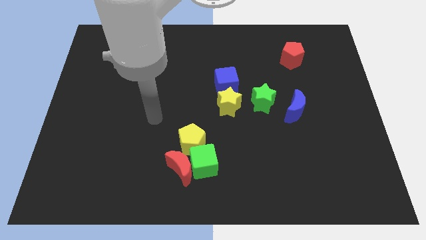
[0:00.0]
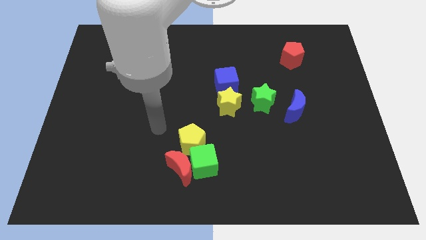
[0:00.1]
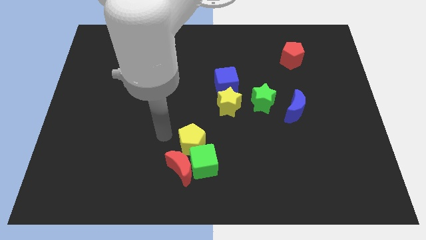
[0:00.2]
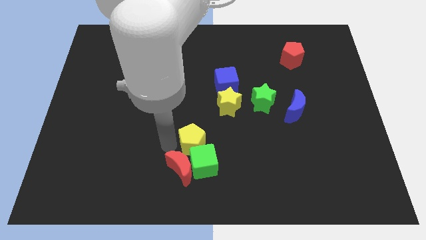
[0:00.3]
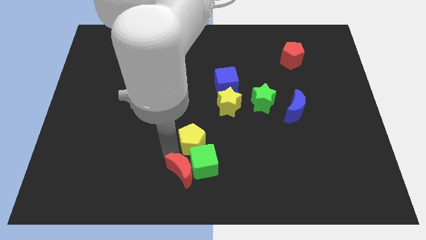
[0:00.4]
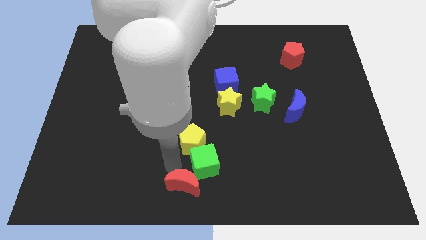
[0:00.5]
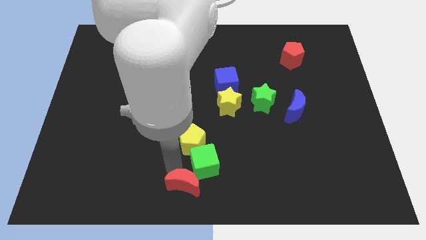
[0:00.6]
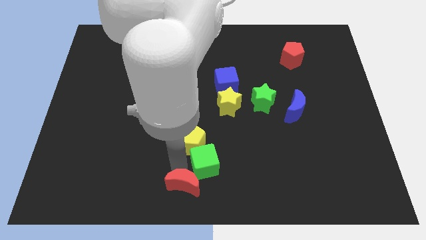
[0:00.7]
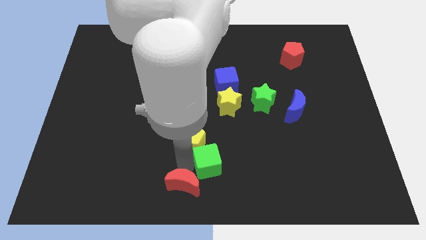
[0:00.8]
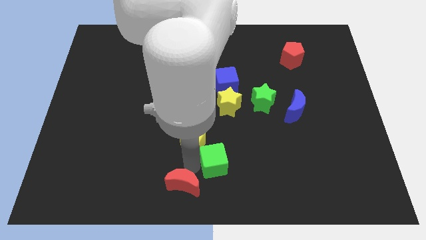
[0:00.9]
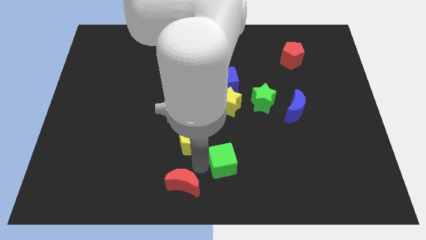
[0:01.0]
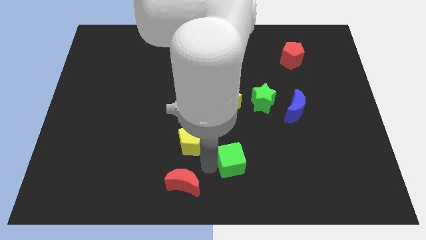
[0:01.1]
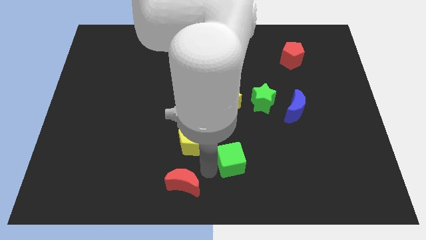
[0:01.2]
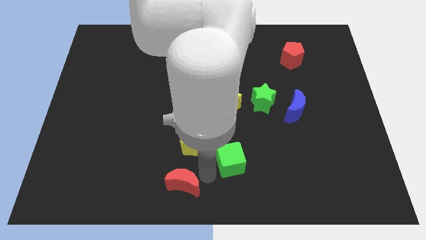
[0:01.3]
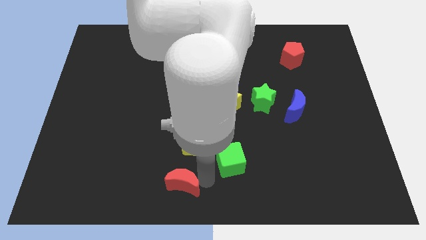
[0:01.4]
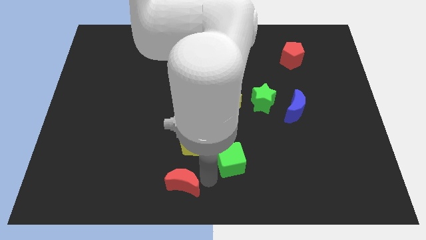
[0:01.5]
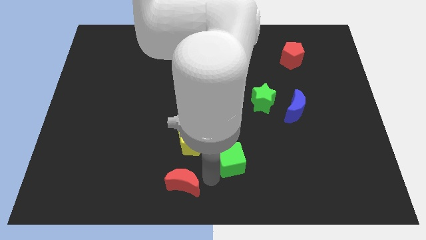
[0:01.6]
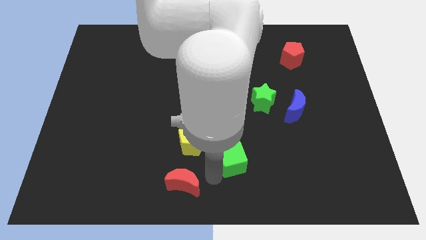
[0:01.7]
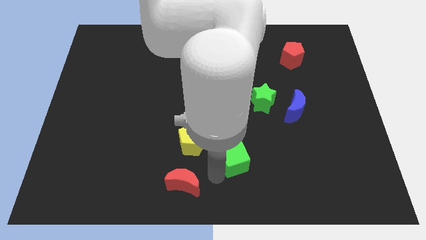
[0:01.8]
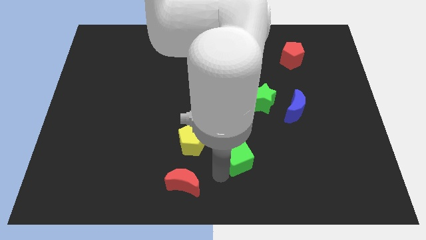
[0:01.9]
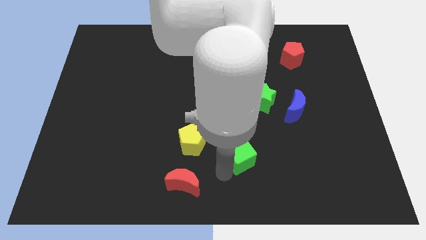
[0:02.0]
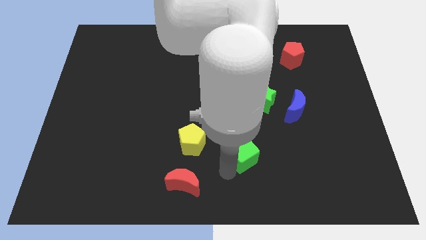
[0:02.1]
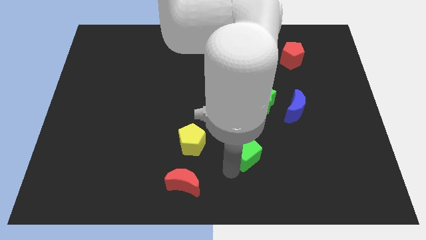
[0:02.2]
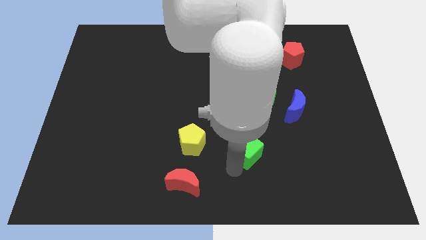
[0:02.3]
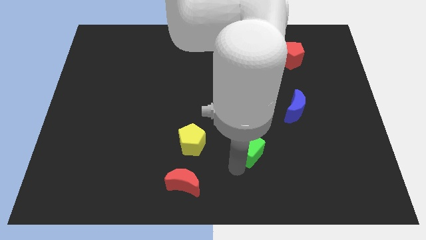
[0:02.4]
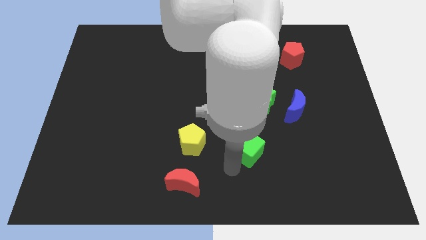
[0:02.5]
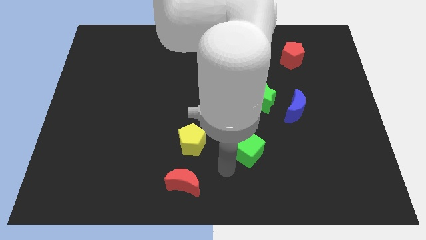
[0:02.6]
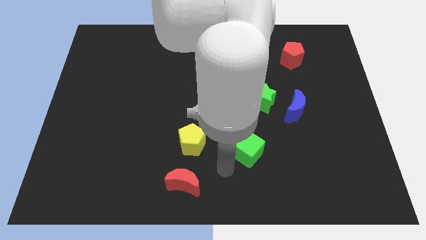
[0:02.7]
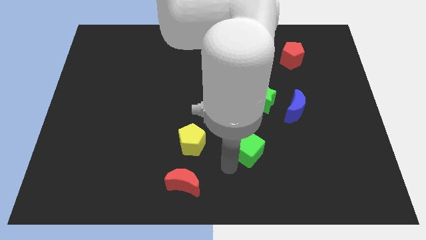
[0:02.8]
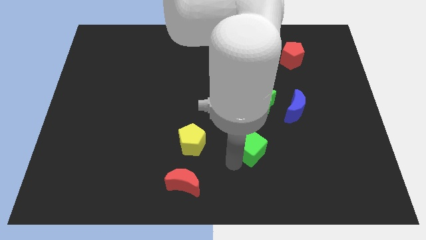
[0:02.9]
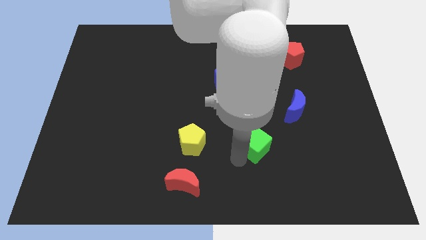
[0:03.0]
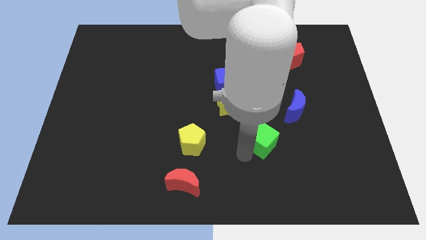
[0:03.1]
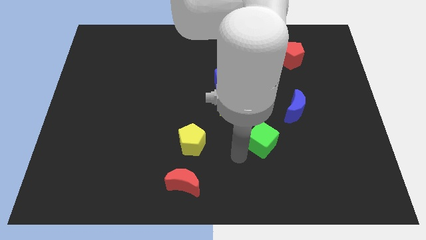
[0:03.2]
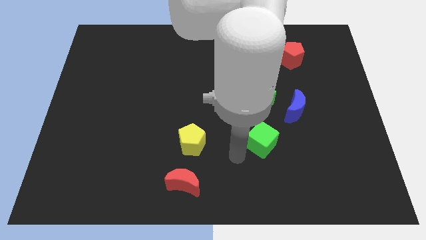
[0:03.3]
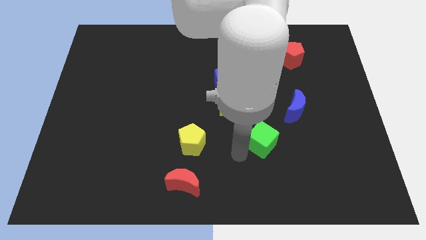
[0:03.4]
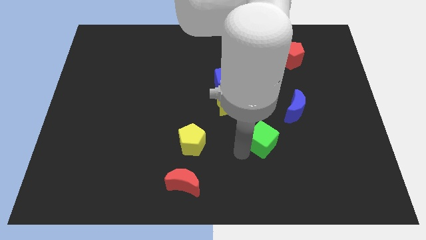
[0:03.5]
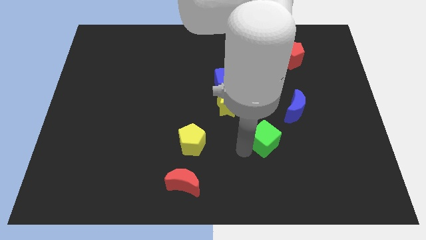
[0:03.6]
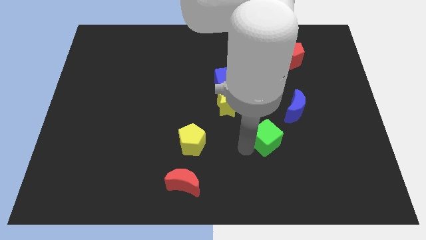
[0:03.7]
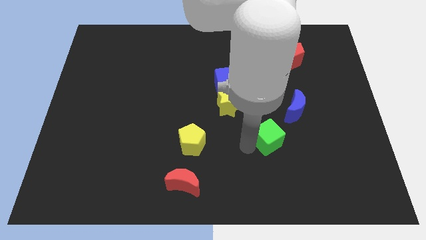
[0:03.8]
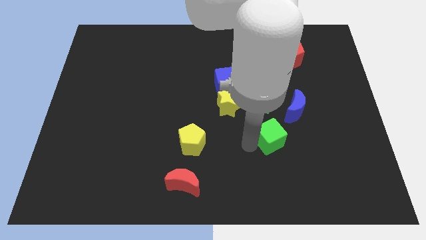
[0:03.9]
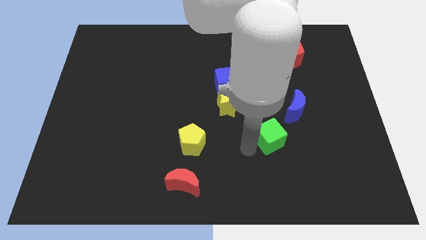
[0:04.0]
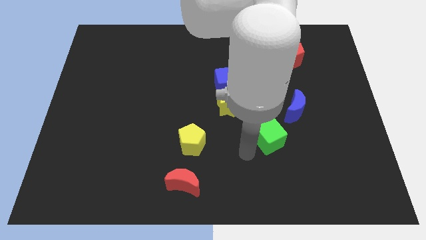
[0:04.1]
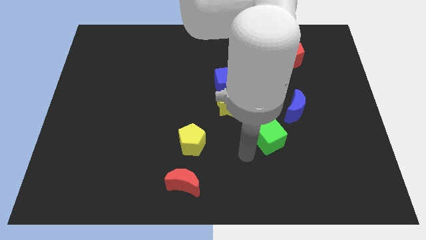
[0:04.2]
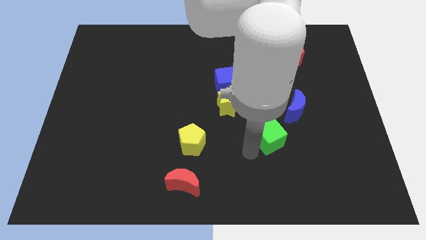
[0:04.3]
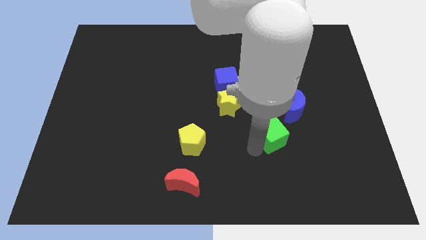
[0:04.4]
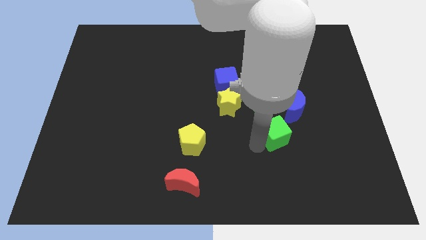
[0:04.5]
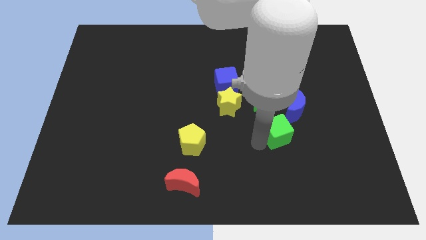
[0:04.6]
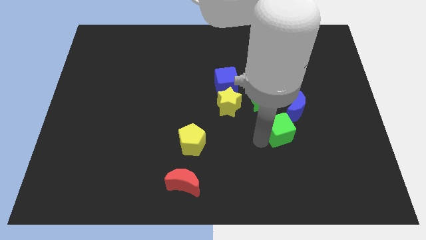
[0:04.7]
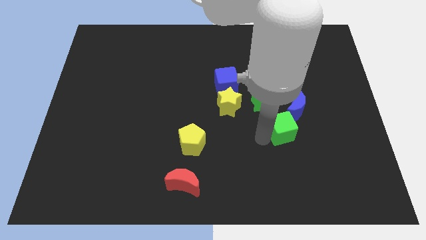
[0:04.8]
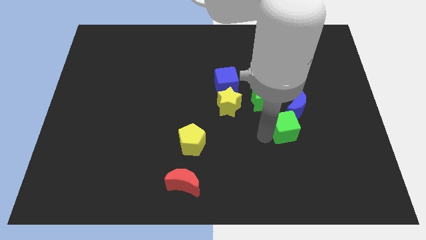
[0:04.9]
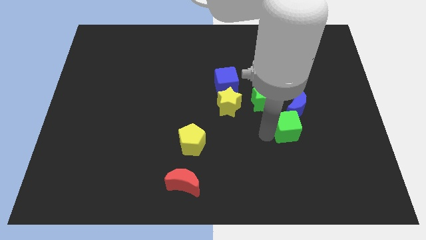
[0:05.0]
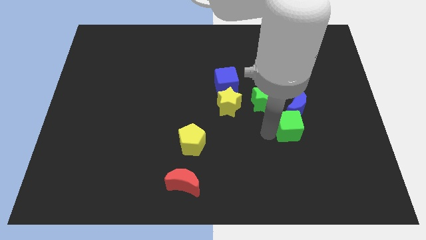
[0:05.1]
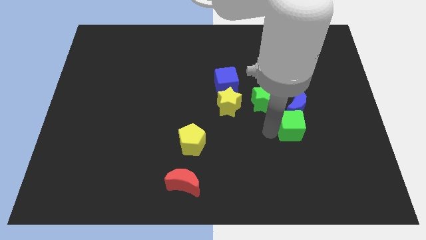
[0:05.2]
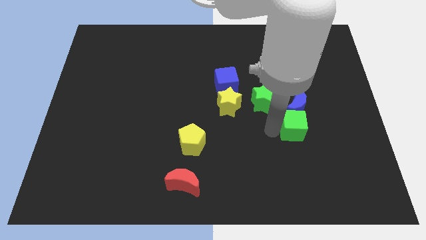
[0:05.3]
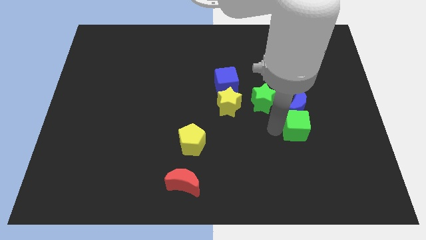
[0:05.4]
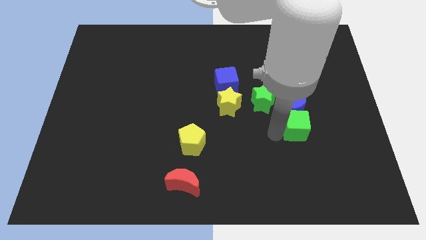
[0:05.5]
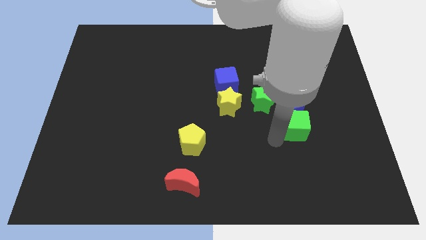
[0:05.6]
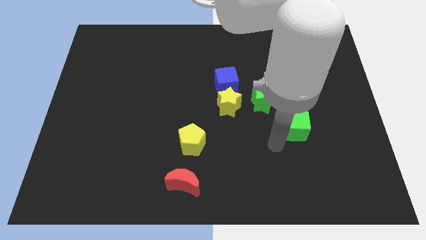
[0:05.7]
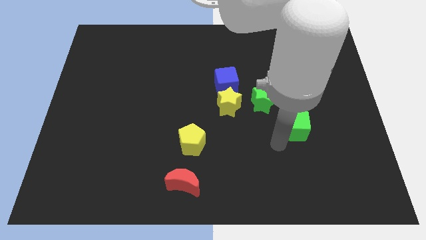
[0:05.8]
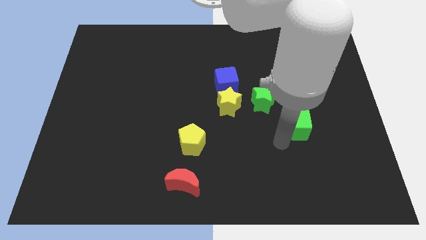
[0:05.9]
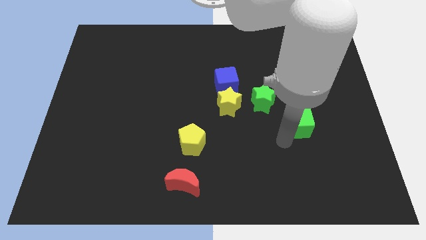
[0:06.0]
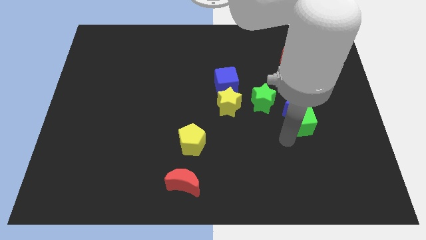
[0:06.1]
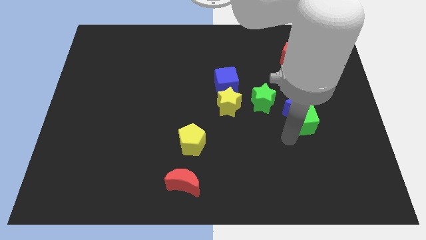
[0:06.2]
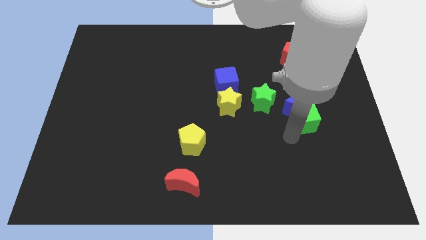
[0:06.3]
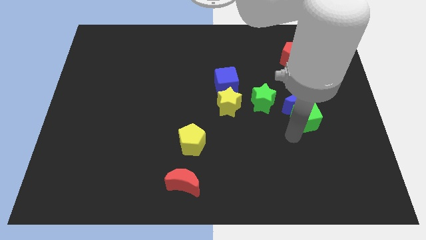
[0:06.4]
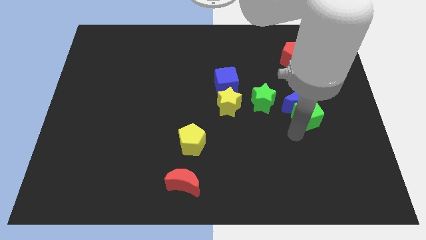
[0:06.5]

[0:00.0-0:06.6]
push the green cube to the right of the green star
